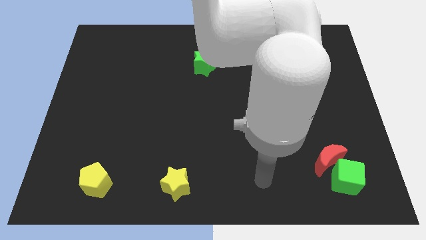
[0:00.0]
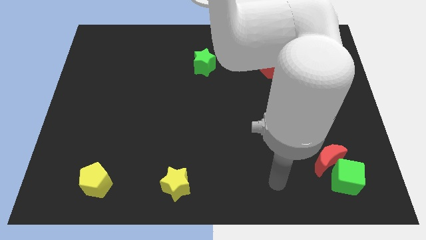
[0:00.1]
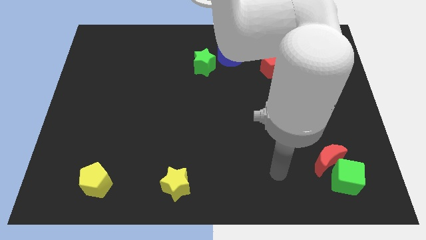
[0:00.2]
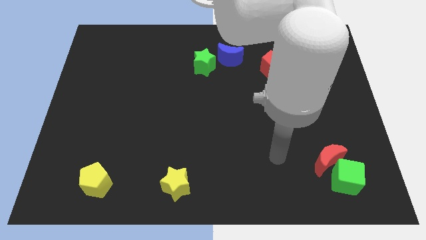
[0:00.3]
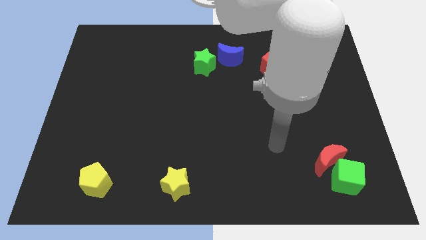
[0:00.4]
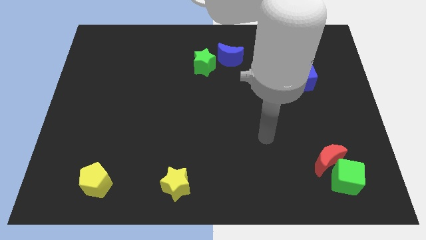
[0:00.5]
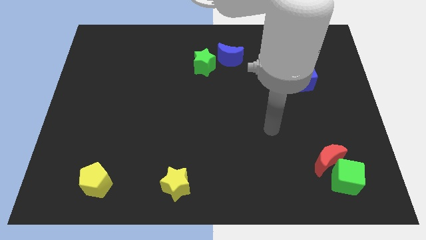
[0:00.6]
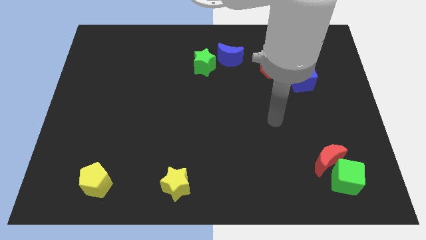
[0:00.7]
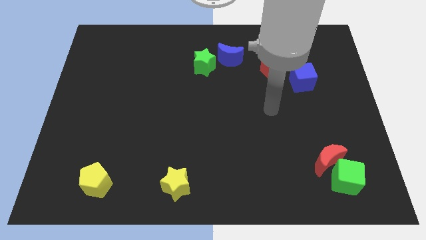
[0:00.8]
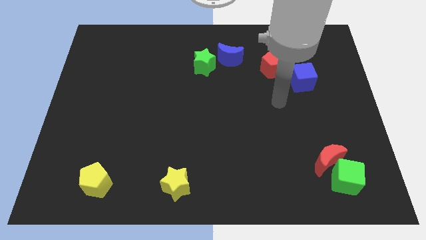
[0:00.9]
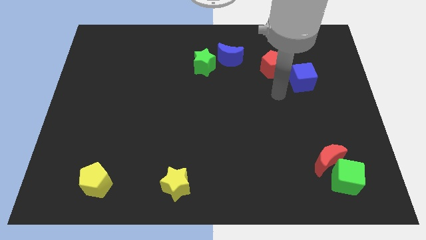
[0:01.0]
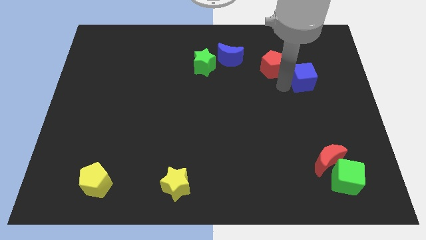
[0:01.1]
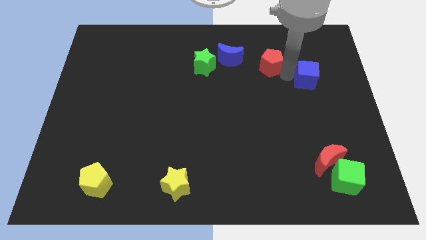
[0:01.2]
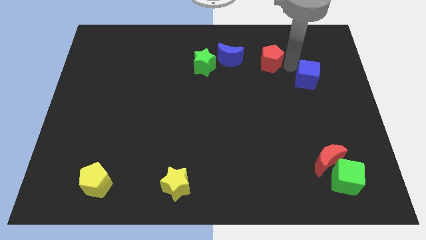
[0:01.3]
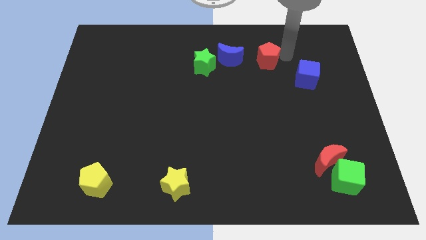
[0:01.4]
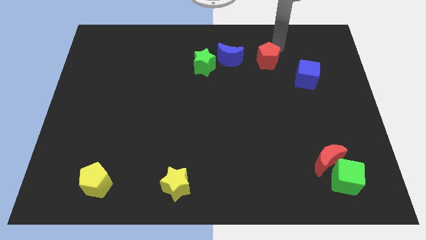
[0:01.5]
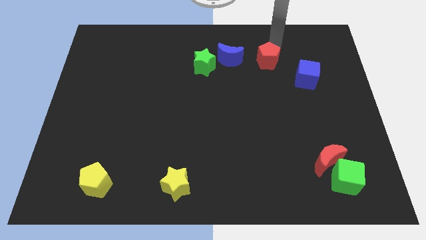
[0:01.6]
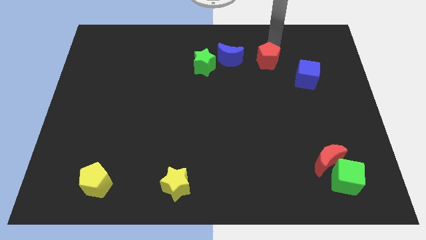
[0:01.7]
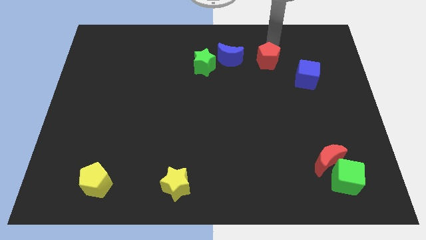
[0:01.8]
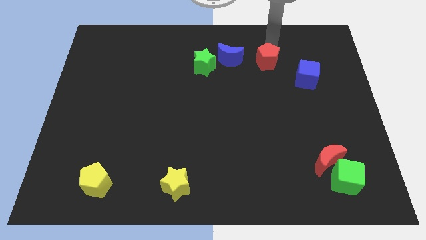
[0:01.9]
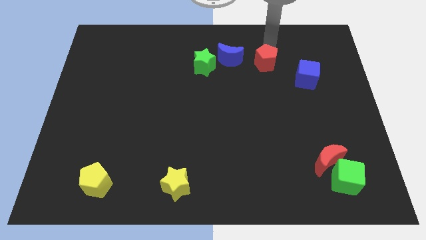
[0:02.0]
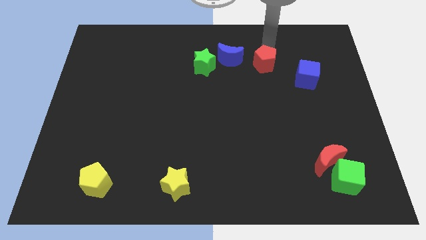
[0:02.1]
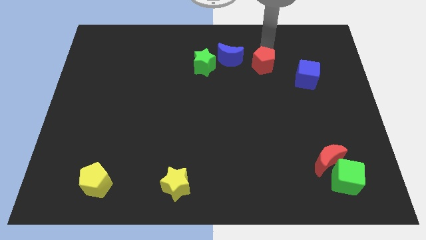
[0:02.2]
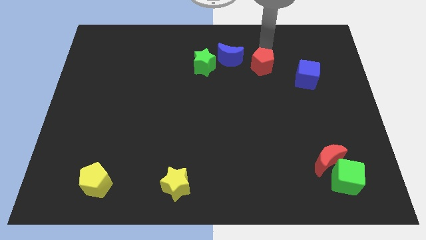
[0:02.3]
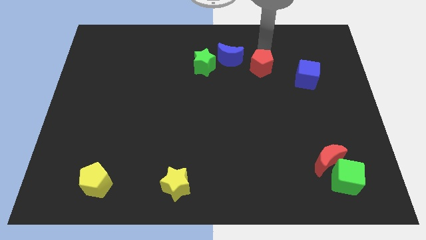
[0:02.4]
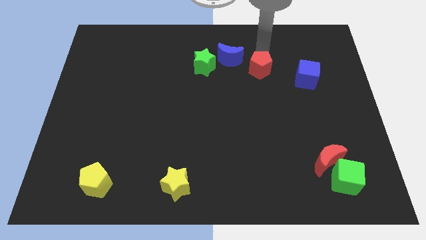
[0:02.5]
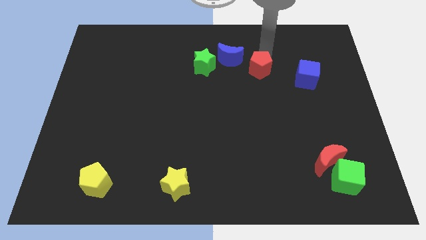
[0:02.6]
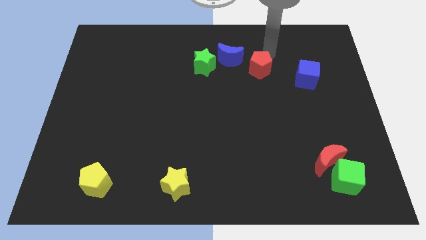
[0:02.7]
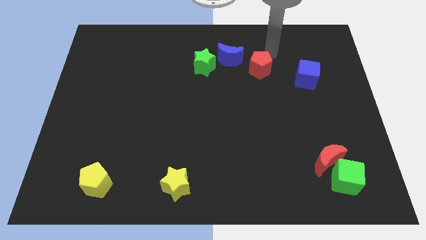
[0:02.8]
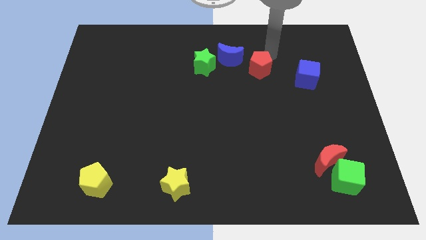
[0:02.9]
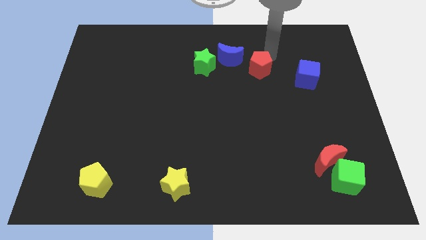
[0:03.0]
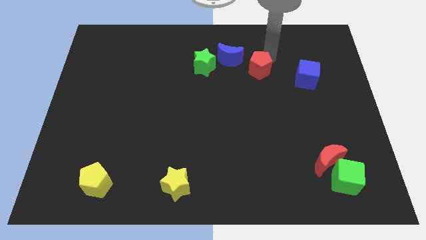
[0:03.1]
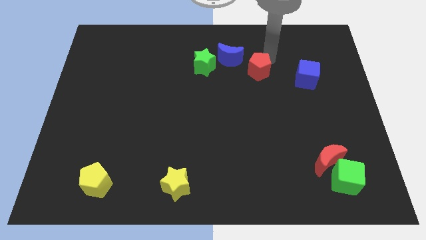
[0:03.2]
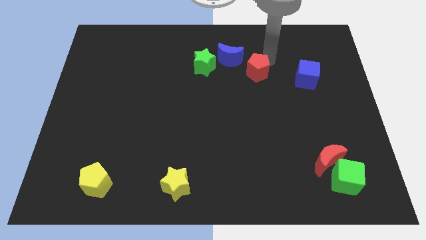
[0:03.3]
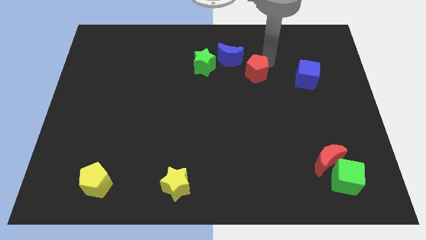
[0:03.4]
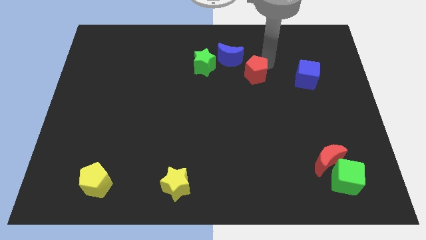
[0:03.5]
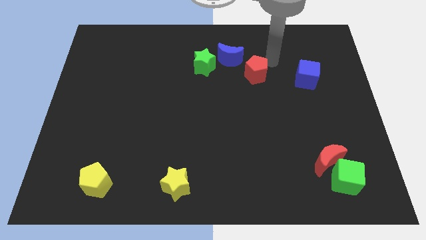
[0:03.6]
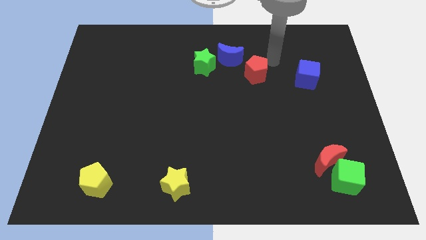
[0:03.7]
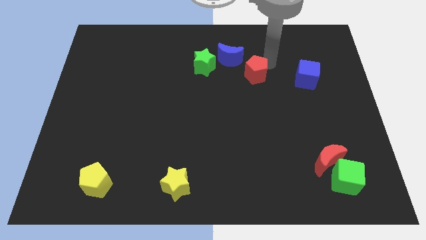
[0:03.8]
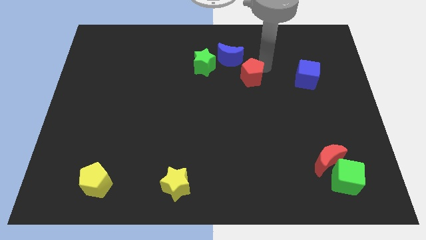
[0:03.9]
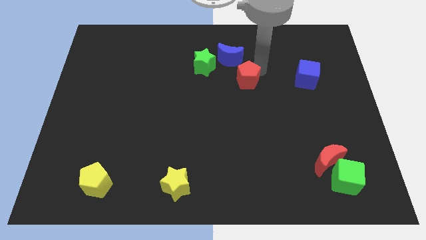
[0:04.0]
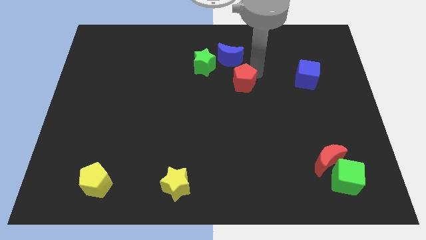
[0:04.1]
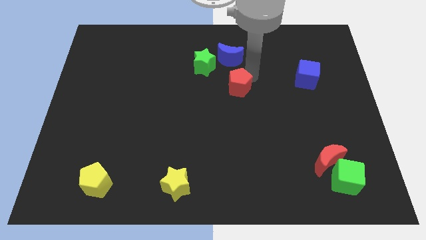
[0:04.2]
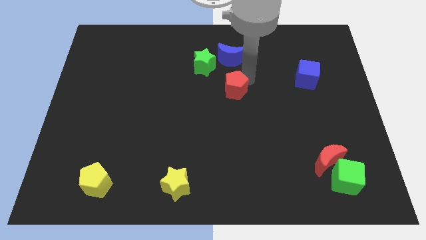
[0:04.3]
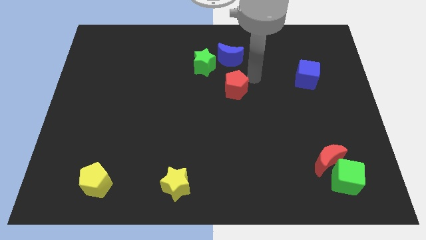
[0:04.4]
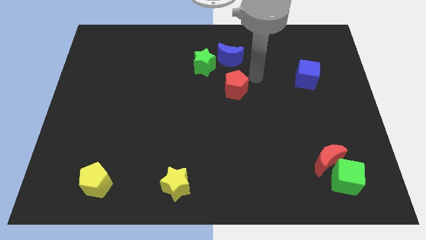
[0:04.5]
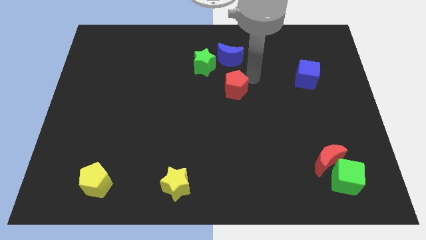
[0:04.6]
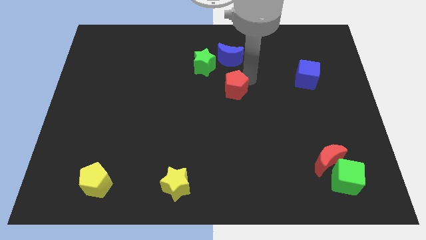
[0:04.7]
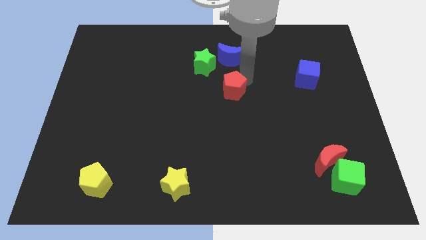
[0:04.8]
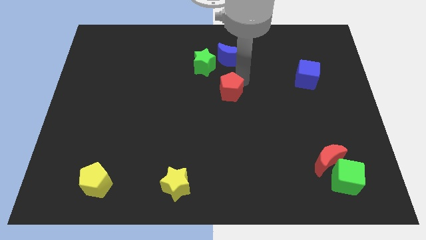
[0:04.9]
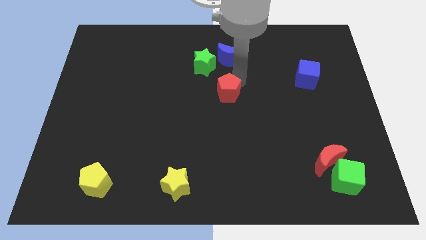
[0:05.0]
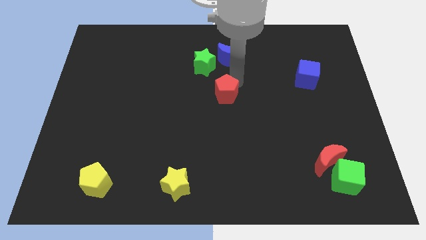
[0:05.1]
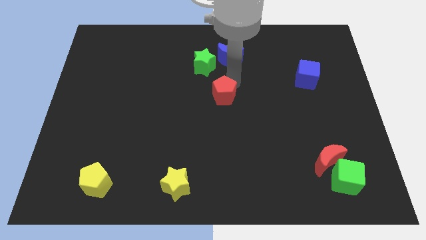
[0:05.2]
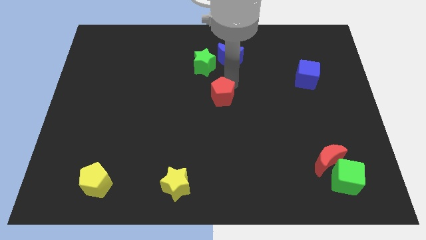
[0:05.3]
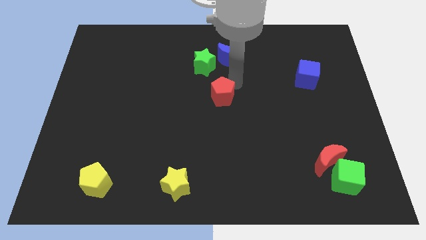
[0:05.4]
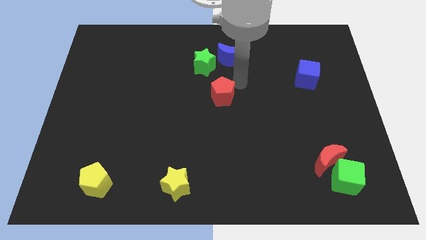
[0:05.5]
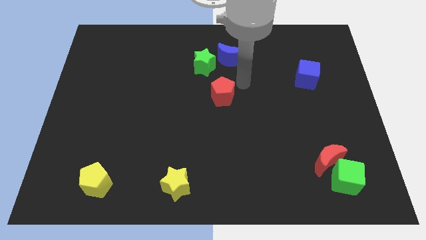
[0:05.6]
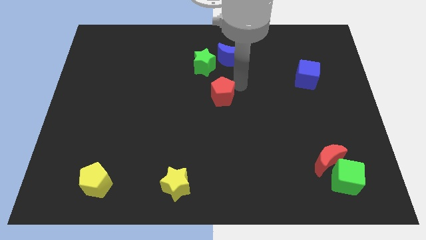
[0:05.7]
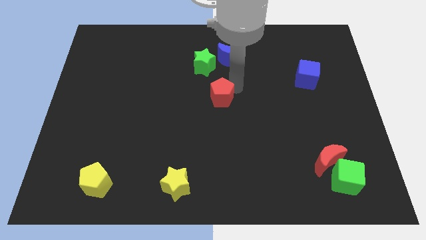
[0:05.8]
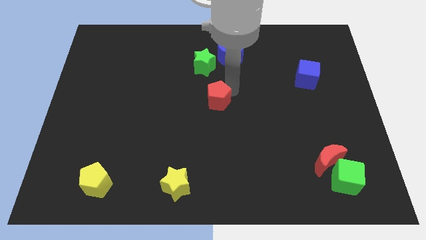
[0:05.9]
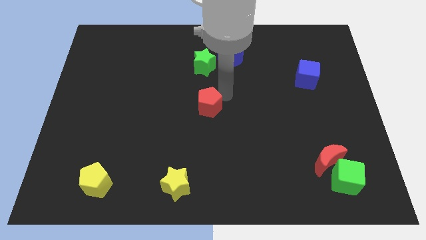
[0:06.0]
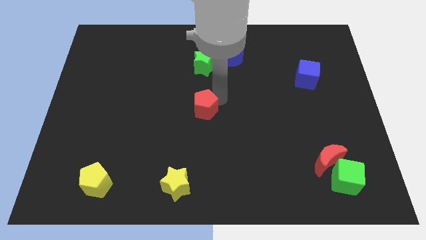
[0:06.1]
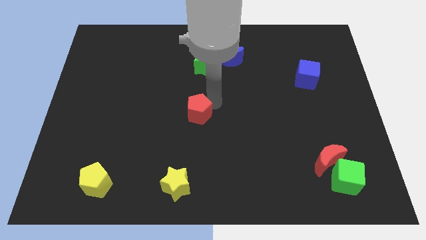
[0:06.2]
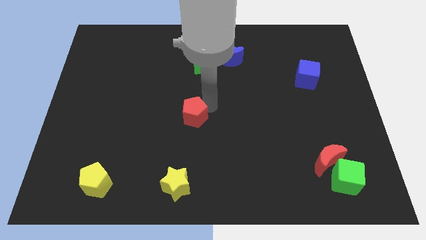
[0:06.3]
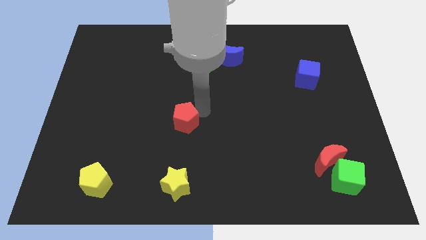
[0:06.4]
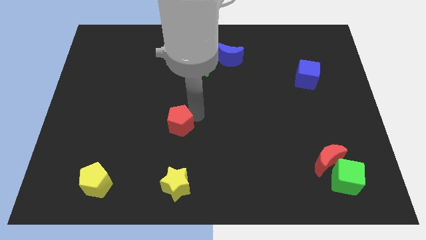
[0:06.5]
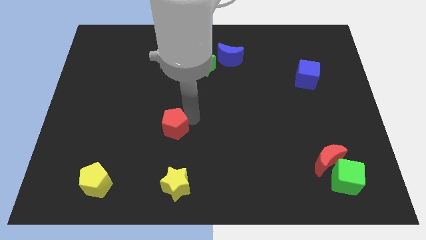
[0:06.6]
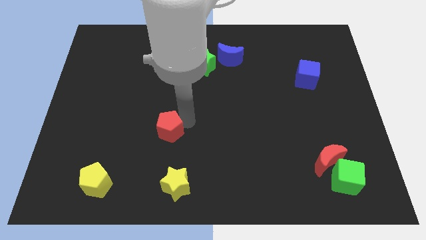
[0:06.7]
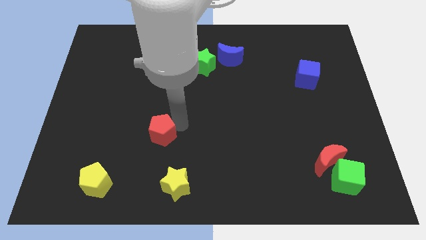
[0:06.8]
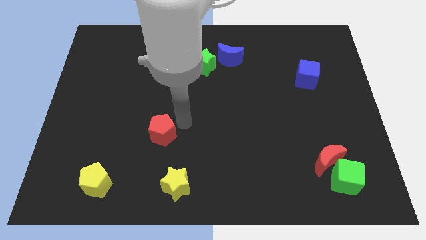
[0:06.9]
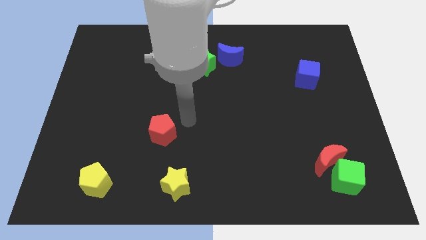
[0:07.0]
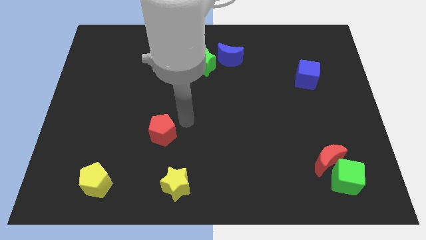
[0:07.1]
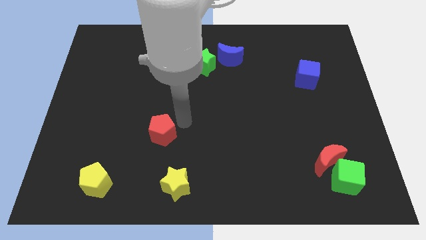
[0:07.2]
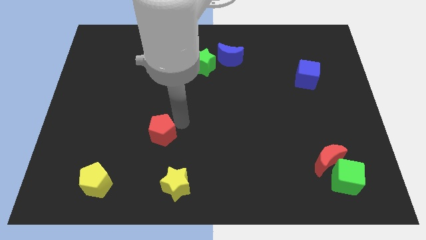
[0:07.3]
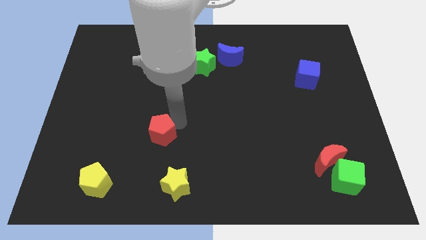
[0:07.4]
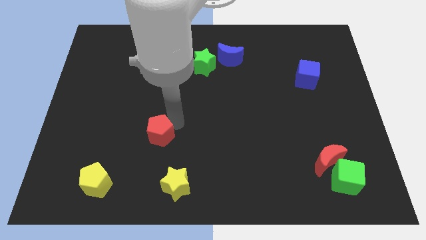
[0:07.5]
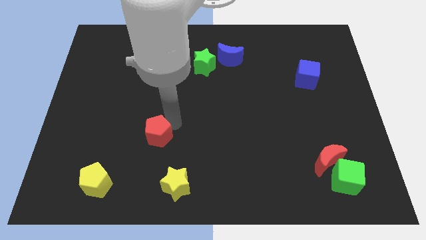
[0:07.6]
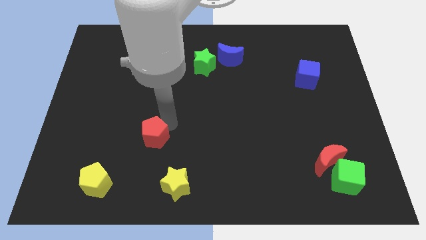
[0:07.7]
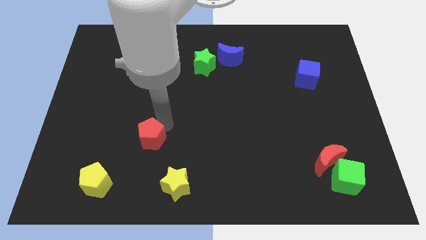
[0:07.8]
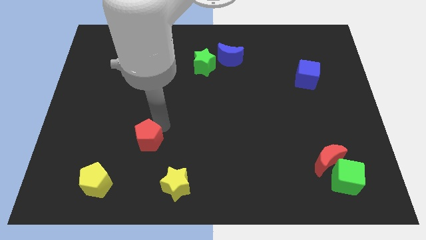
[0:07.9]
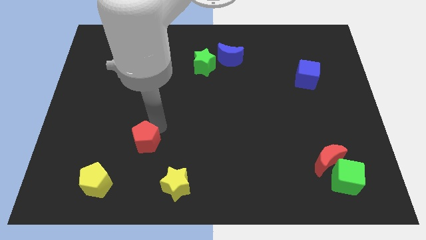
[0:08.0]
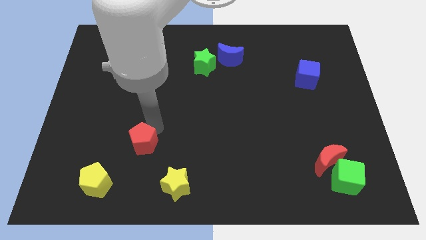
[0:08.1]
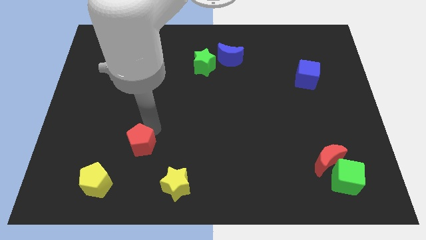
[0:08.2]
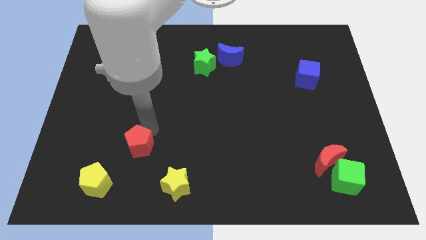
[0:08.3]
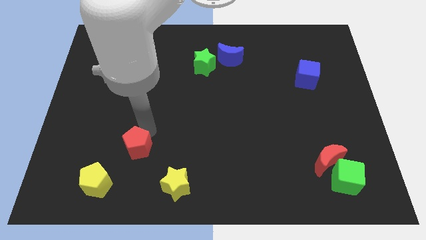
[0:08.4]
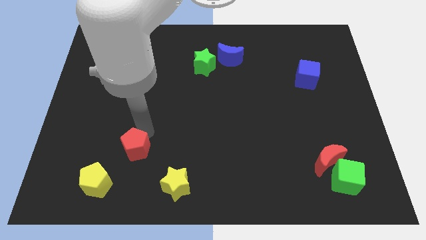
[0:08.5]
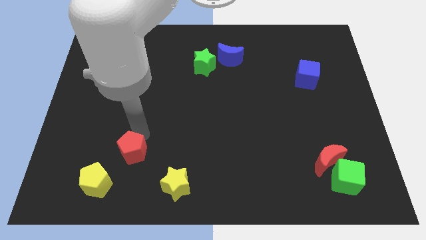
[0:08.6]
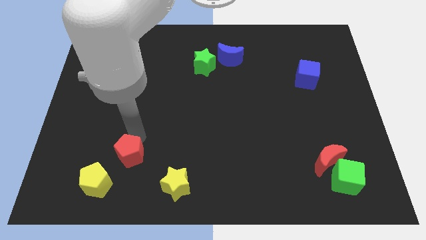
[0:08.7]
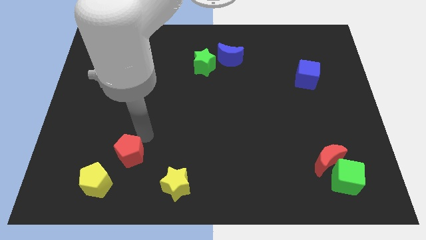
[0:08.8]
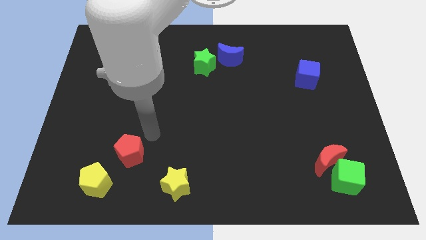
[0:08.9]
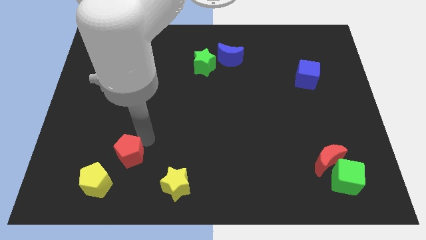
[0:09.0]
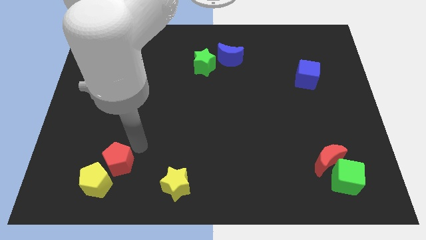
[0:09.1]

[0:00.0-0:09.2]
move the red pentagon next to the yellow pentagon
